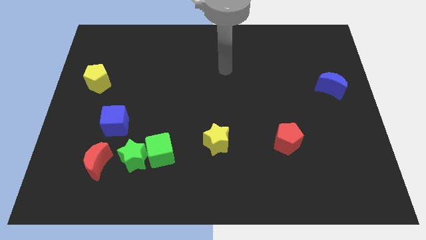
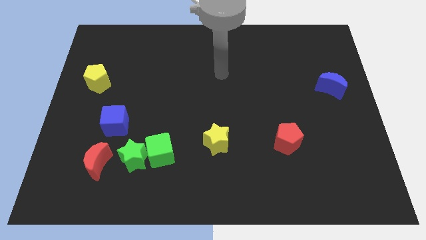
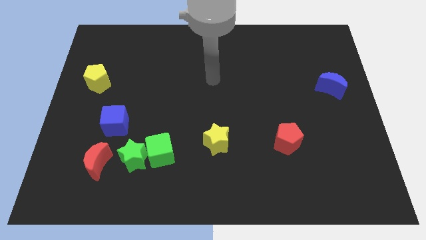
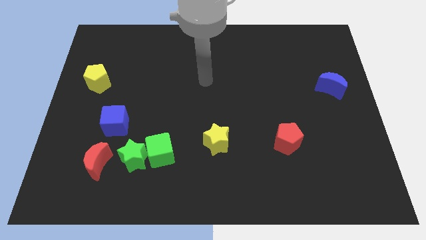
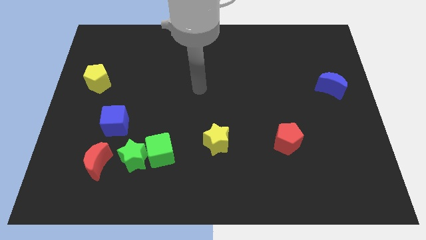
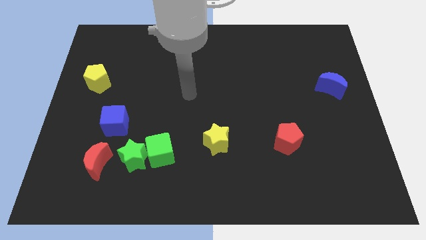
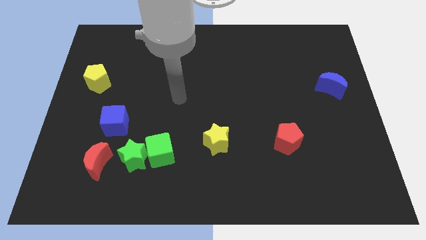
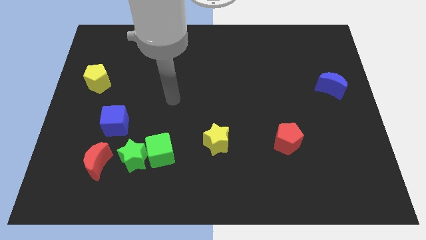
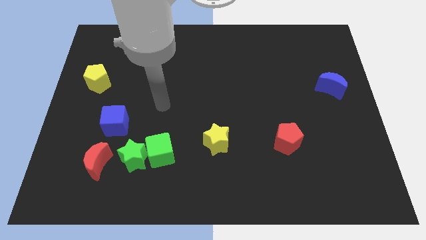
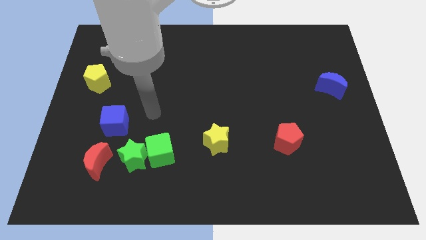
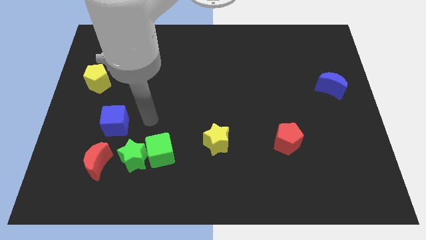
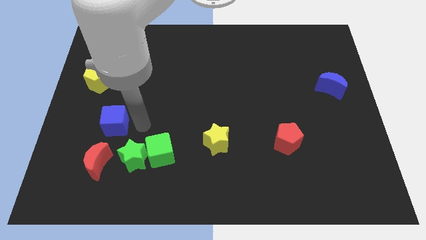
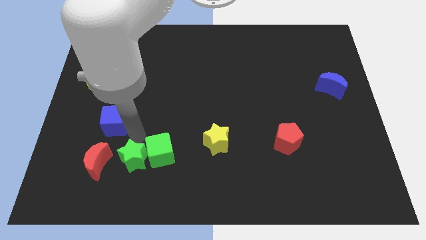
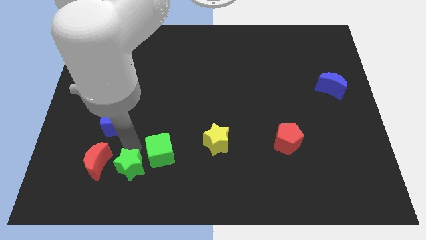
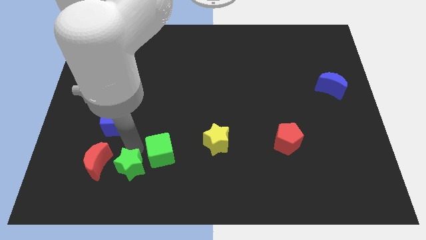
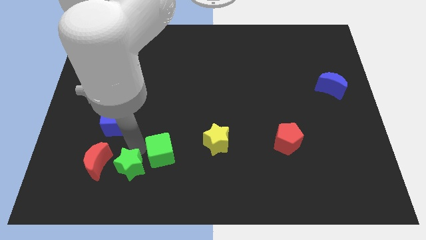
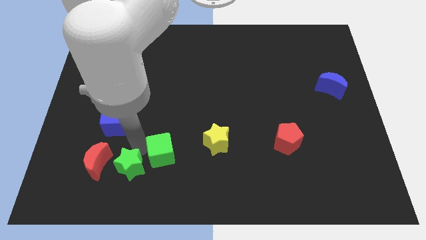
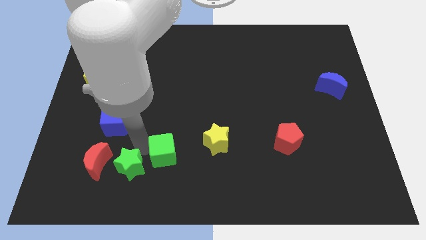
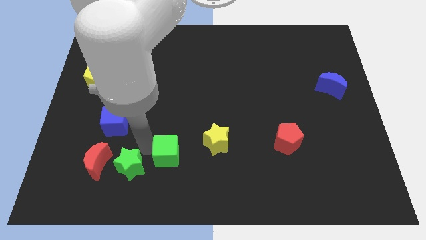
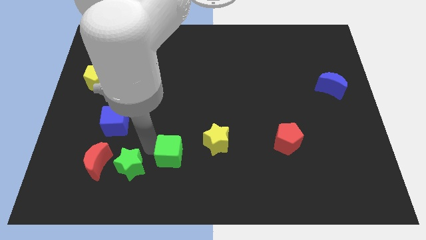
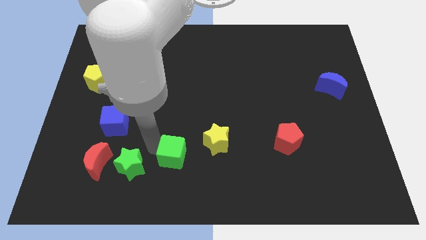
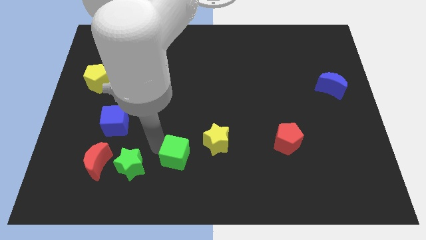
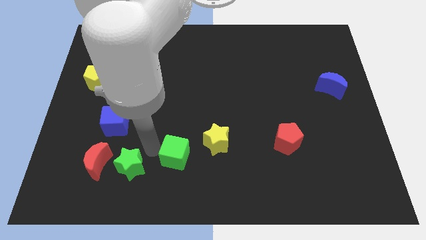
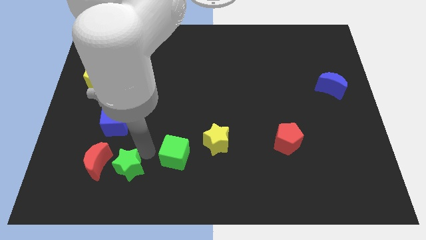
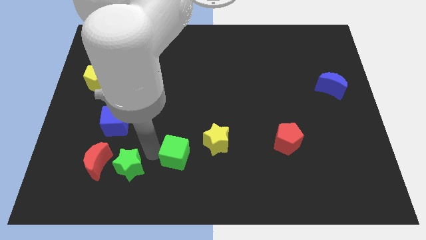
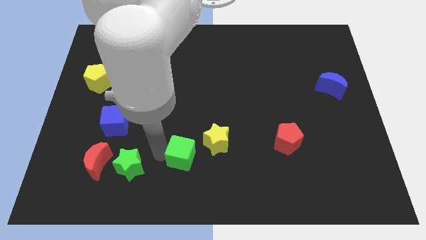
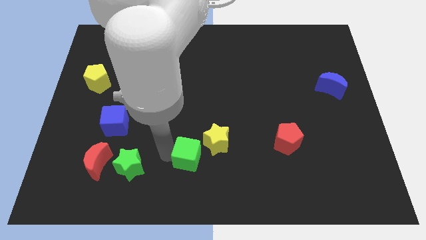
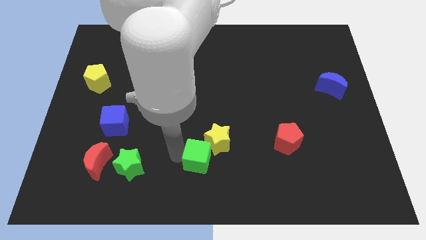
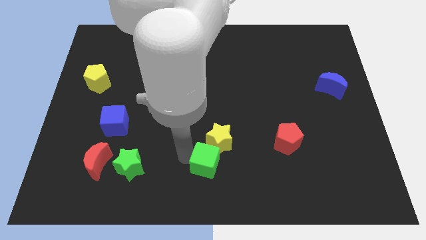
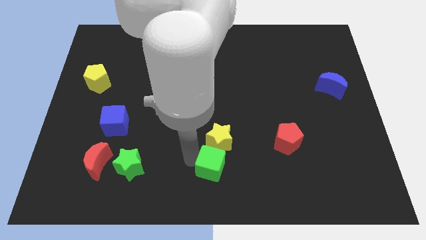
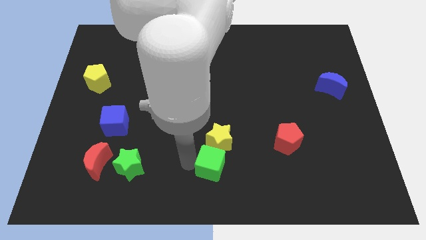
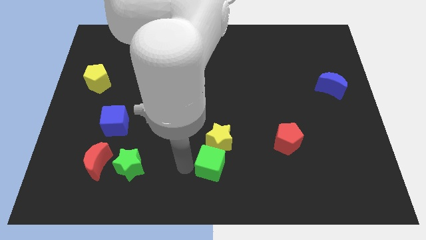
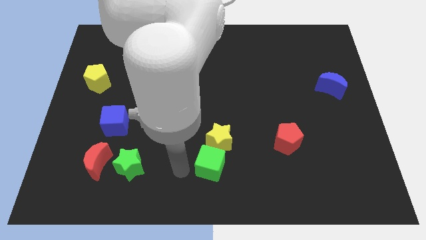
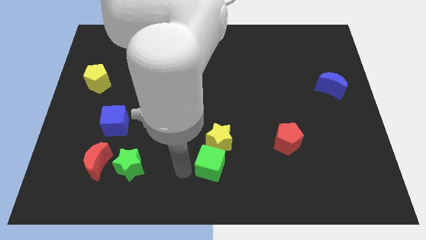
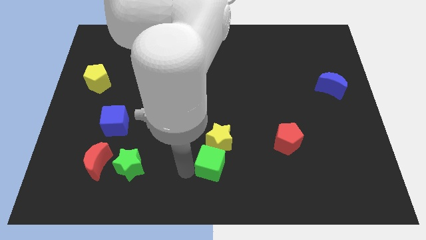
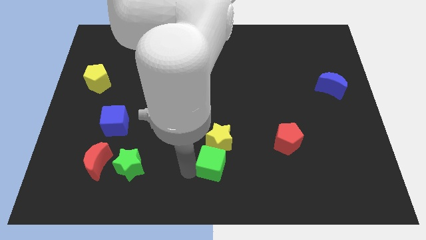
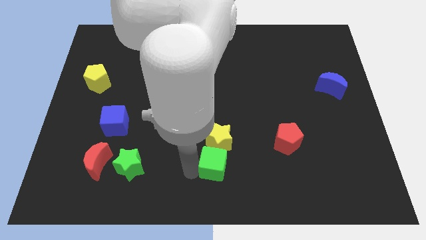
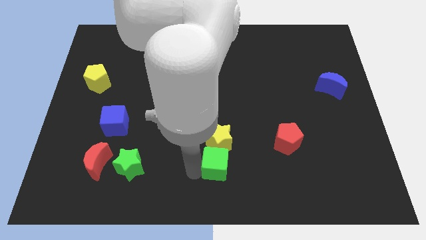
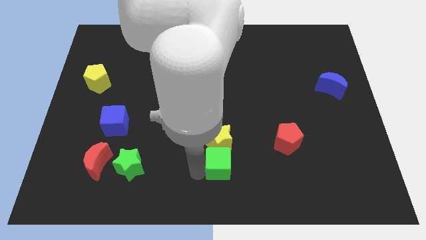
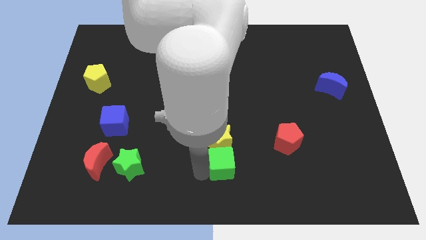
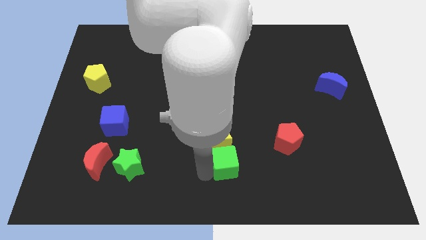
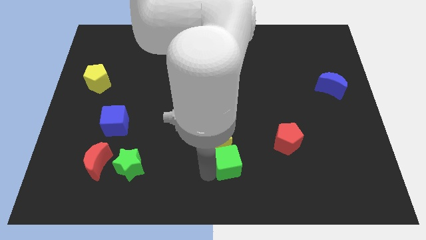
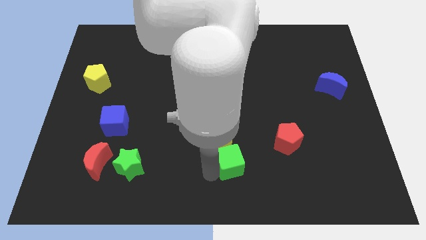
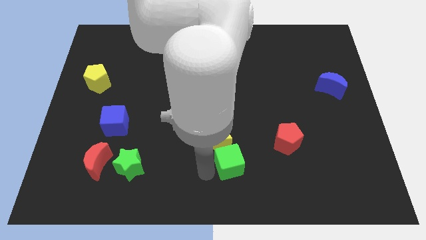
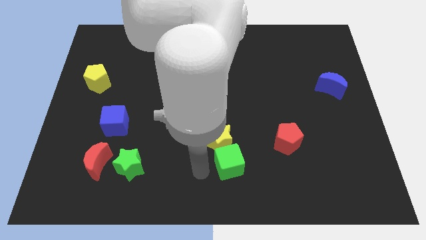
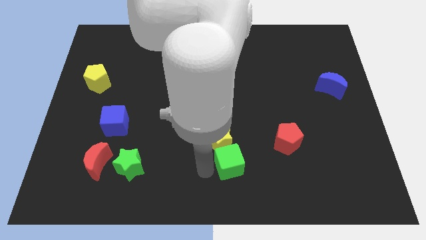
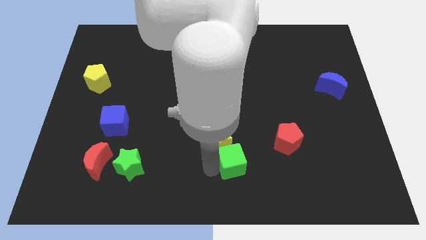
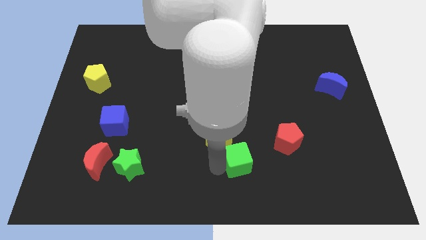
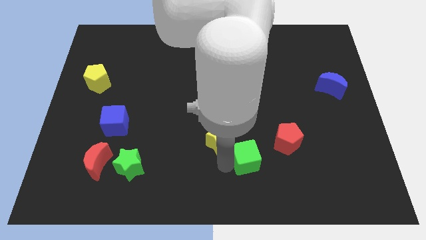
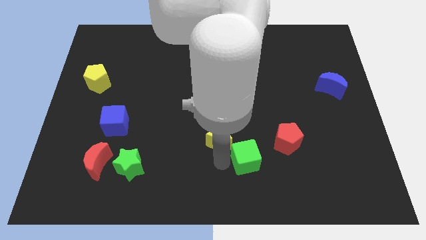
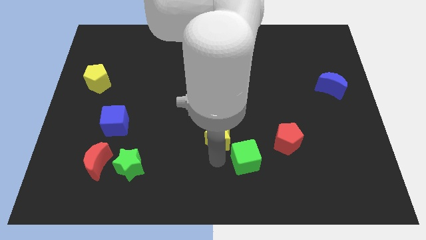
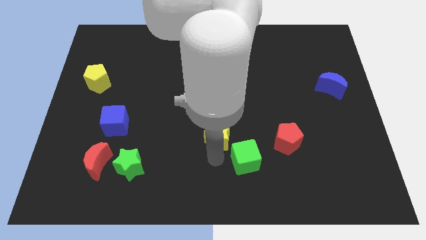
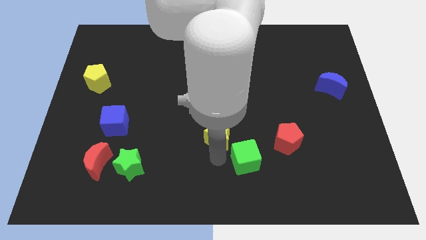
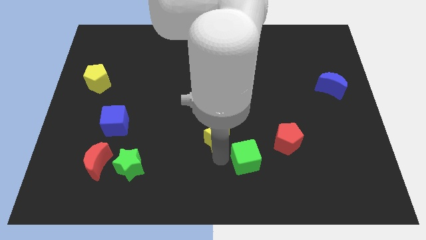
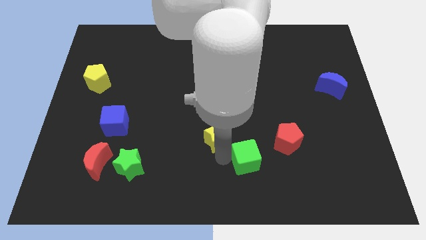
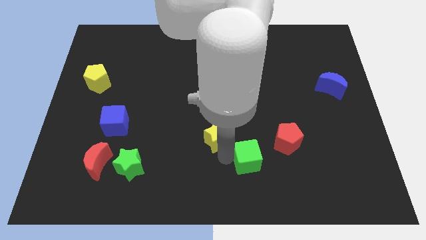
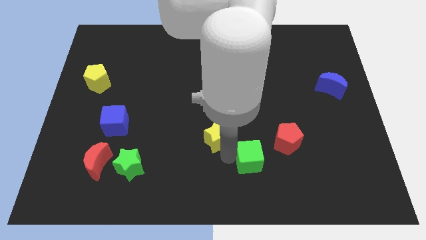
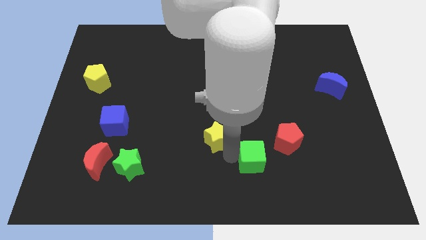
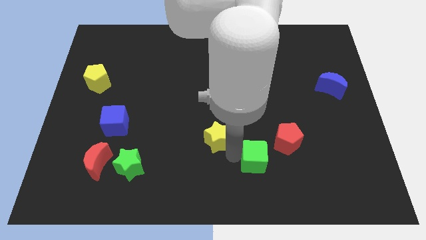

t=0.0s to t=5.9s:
push the green cube to the right

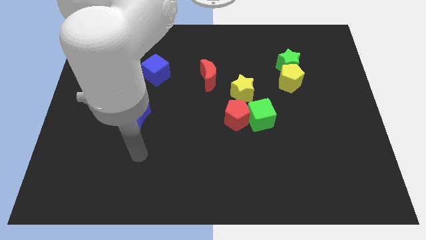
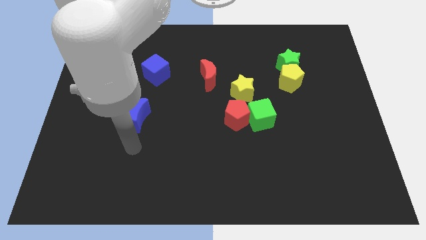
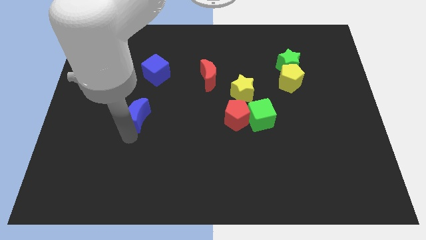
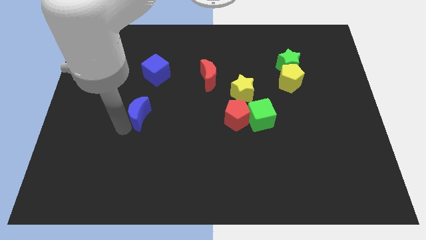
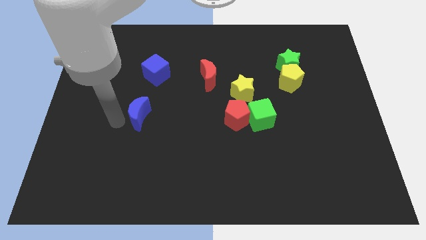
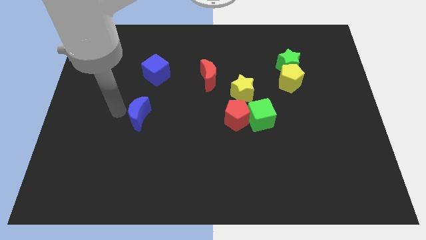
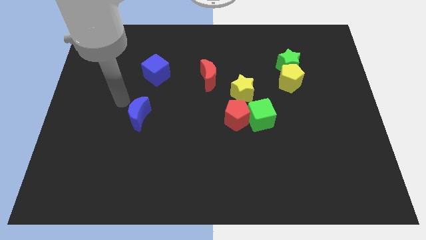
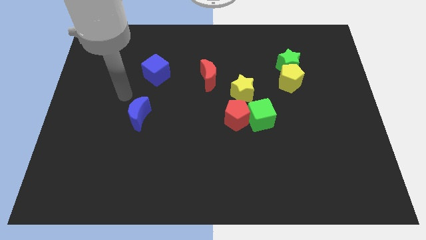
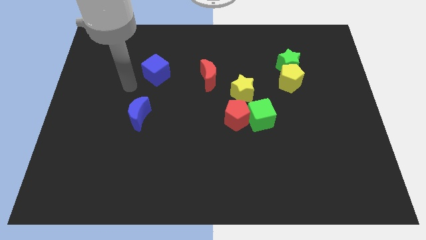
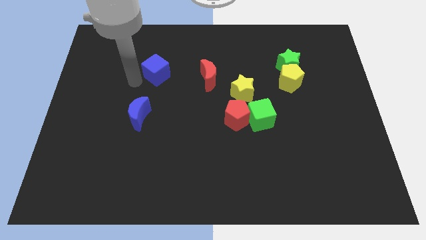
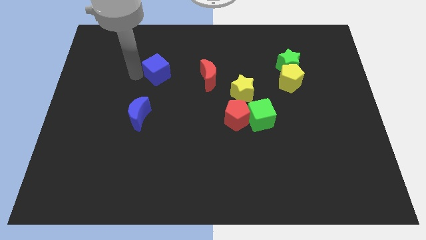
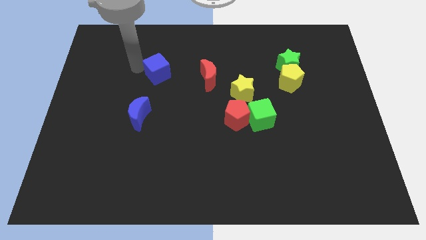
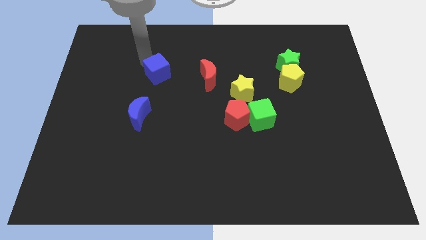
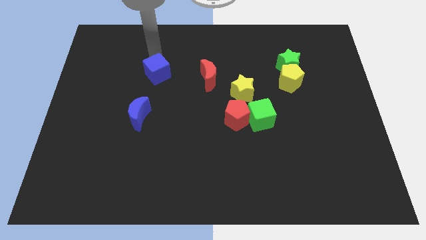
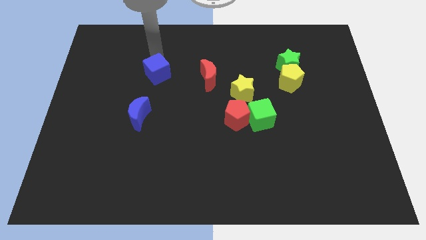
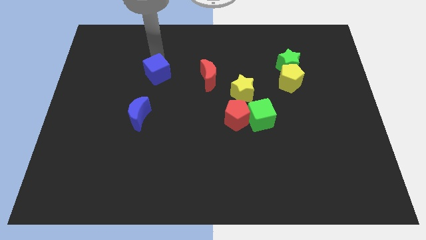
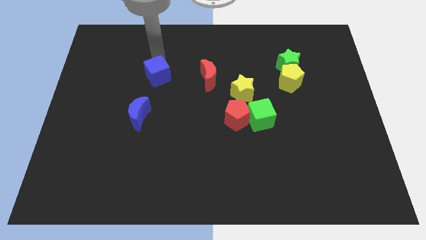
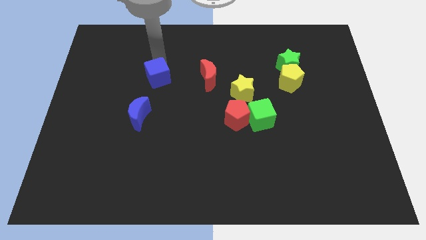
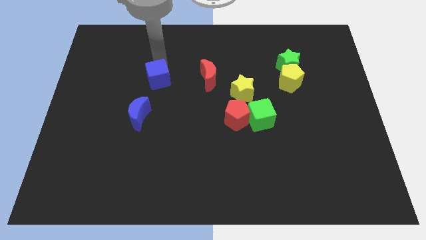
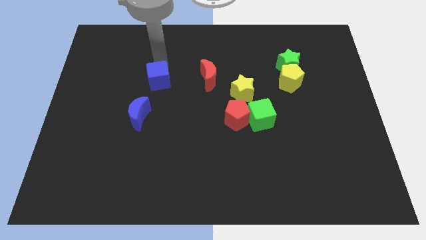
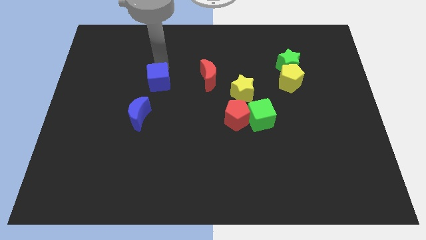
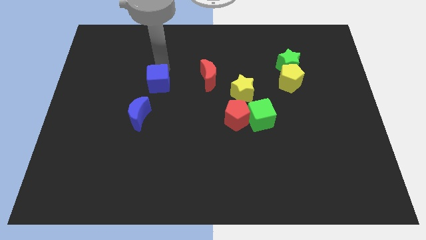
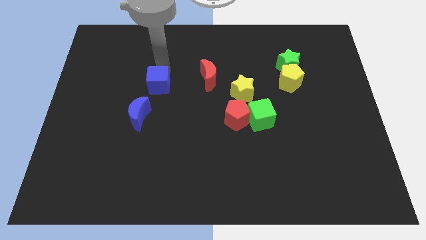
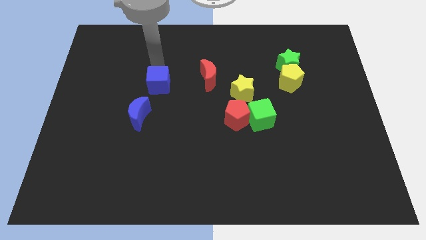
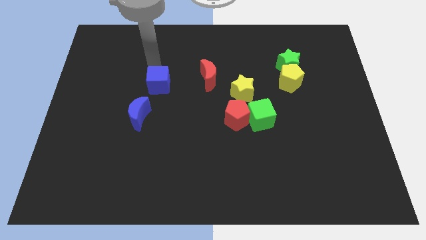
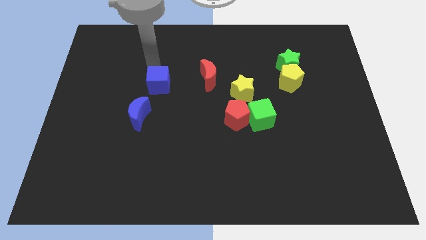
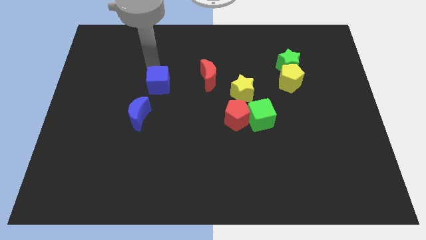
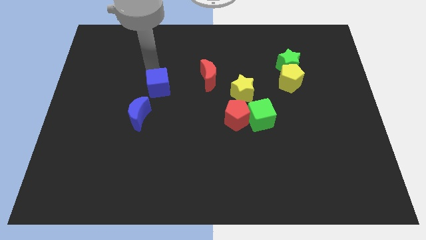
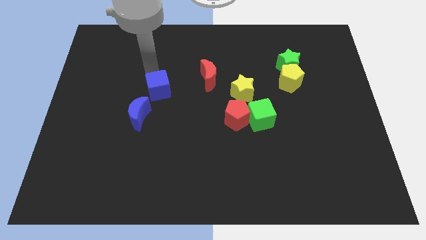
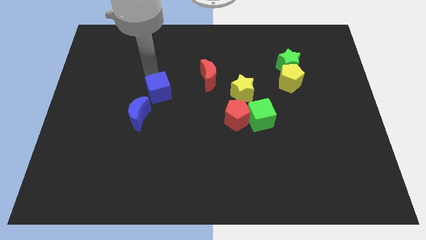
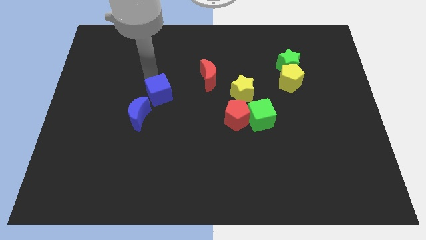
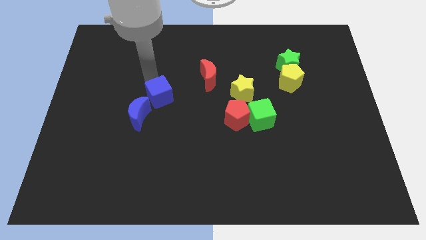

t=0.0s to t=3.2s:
slightly slide the blue cube downwards
